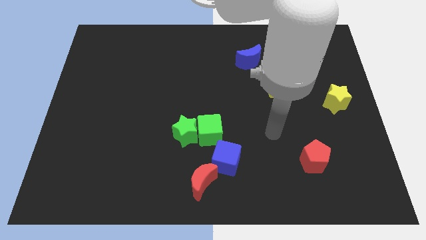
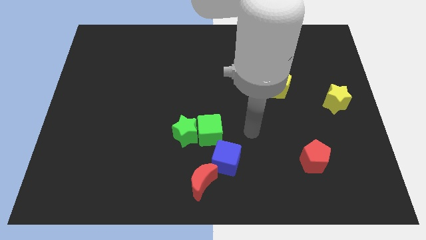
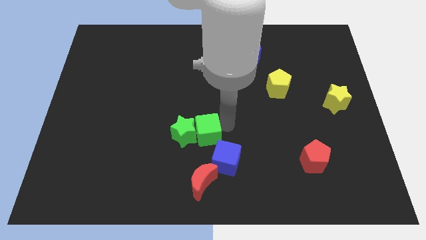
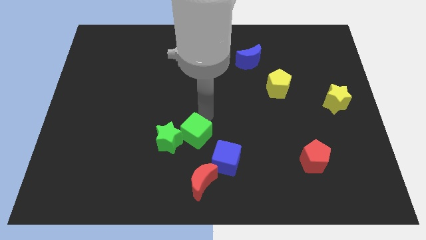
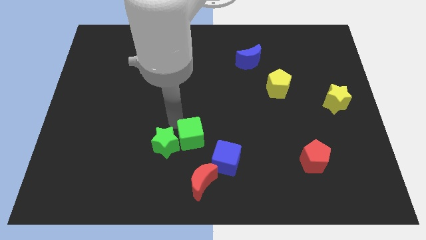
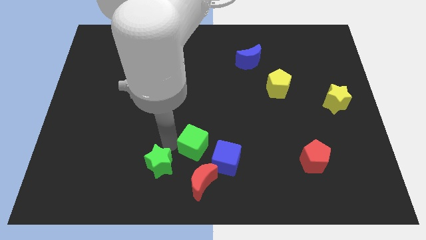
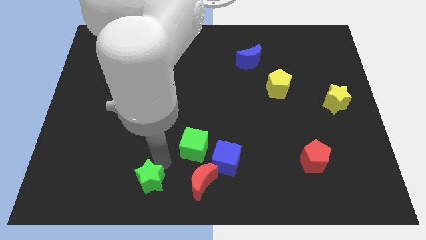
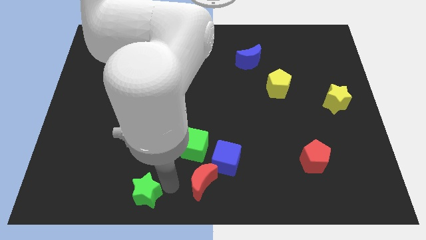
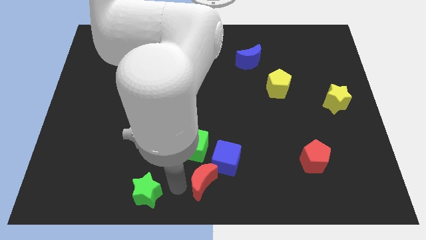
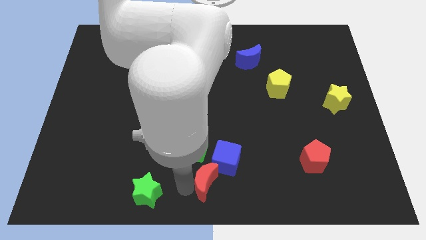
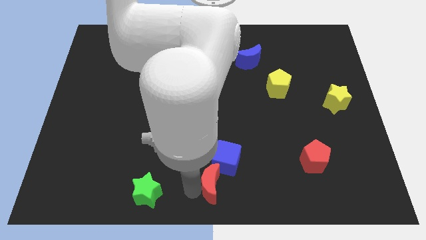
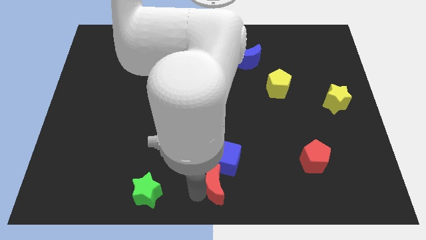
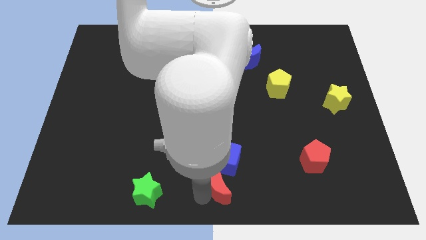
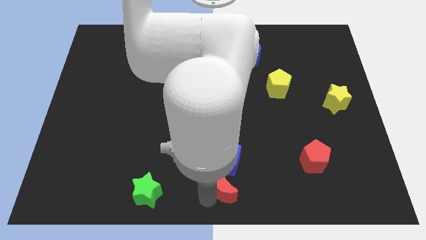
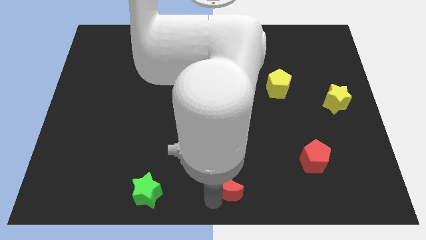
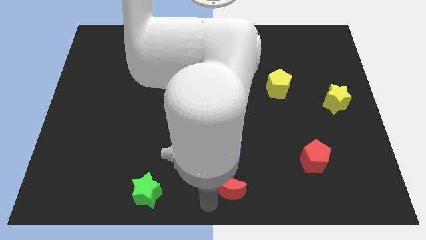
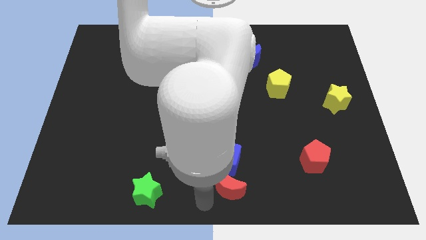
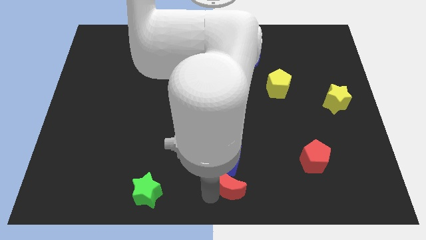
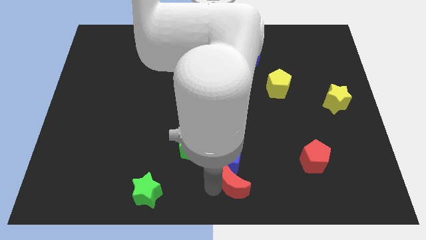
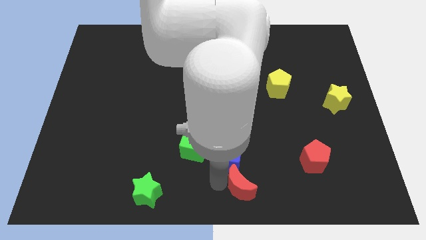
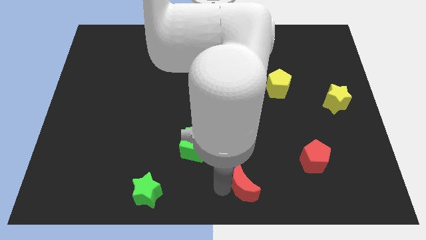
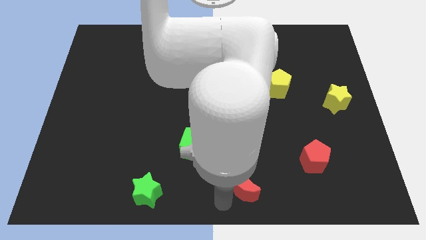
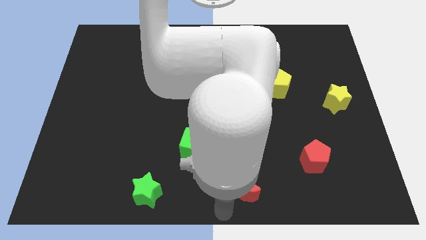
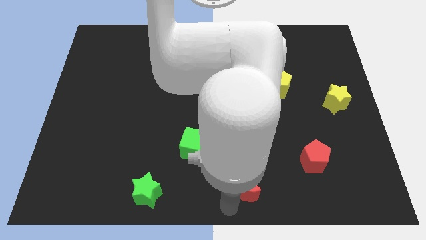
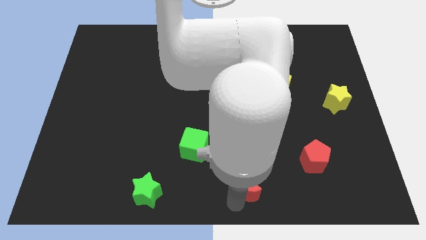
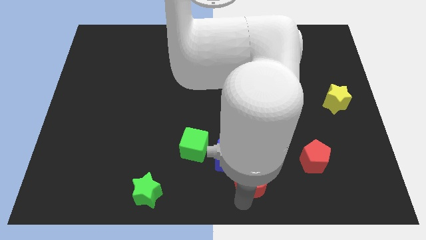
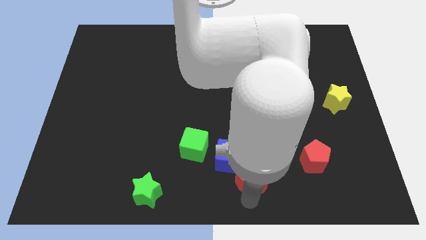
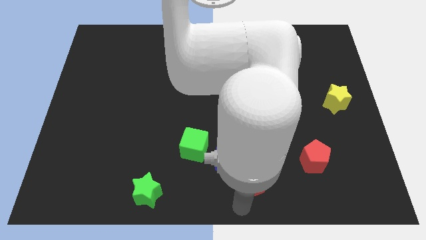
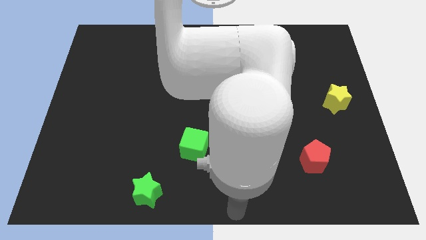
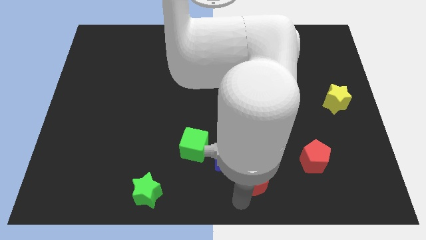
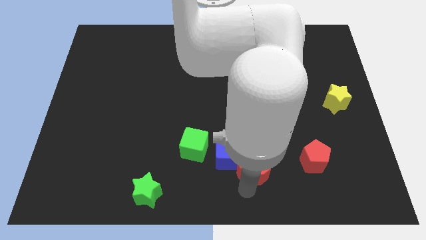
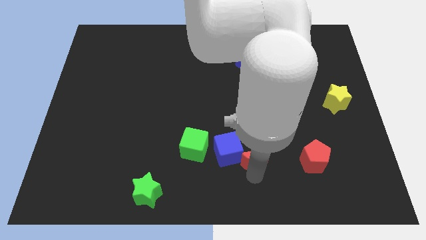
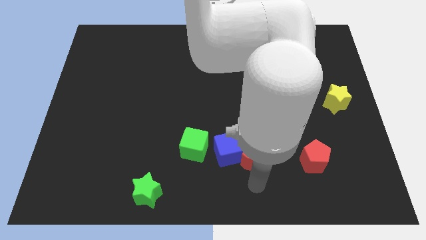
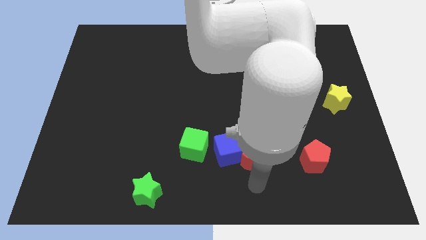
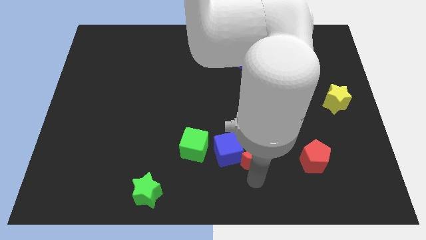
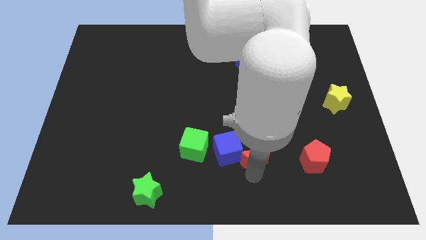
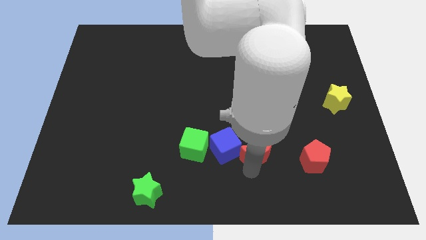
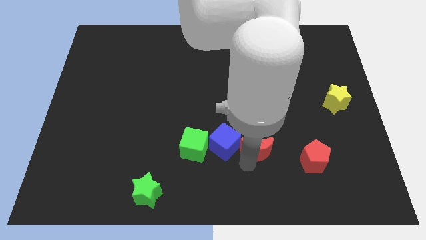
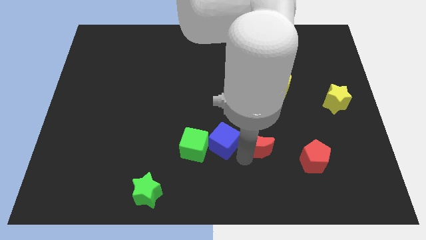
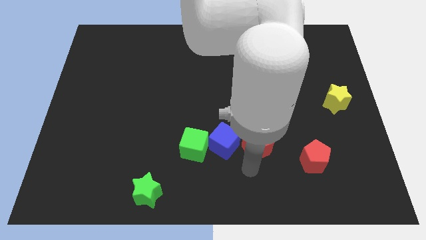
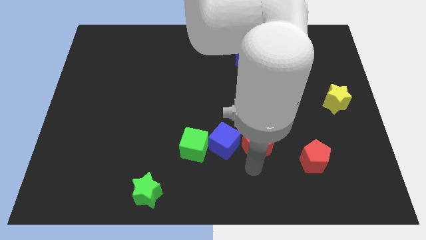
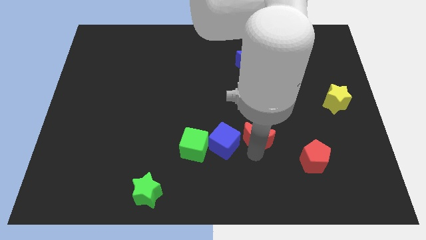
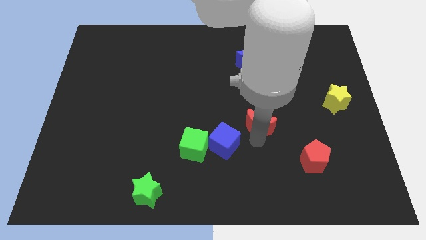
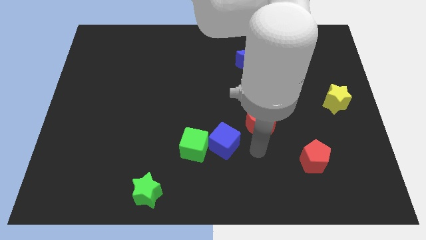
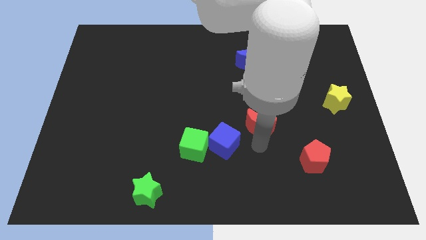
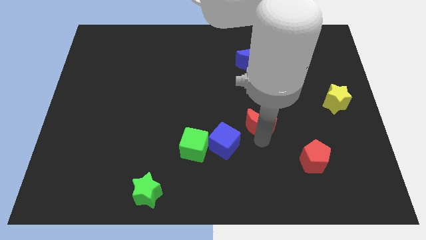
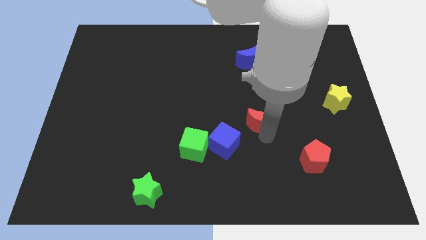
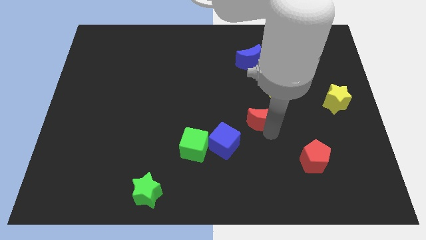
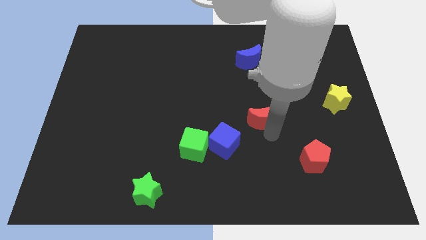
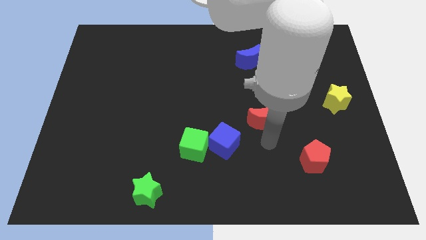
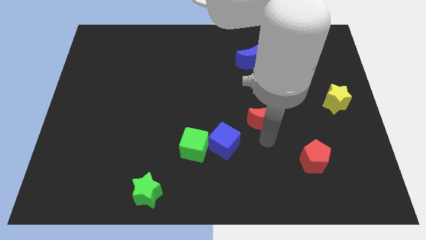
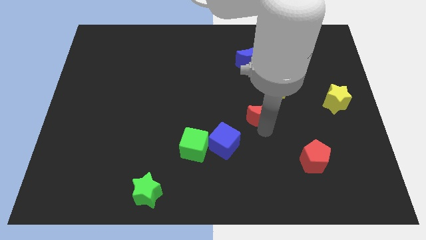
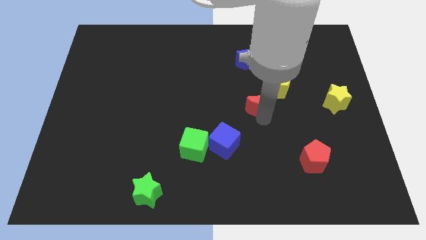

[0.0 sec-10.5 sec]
slide the red moon below the blue moon

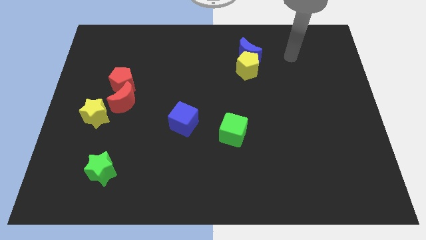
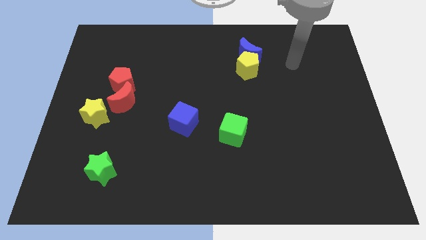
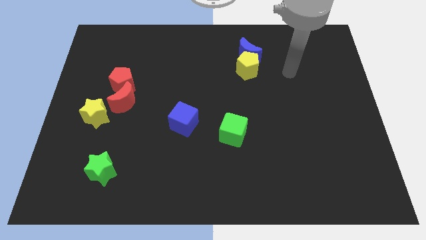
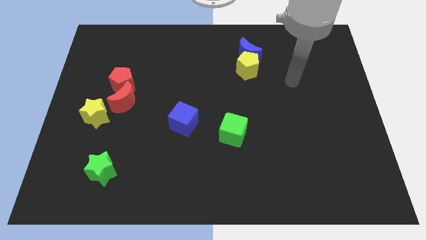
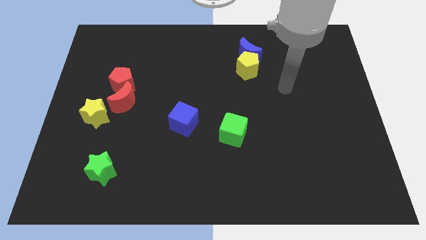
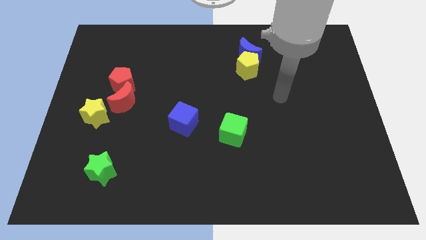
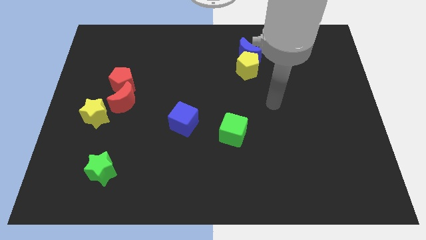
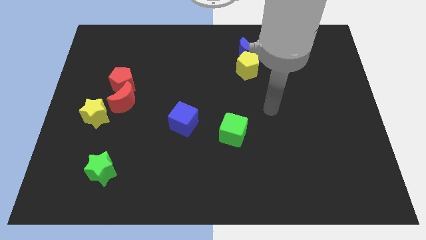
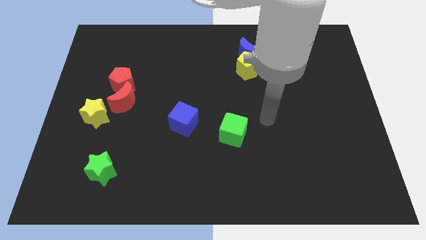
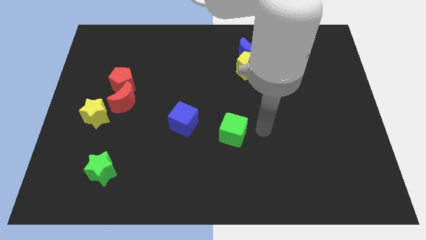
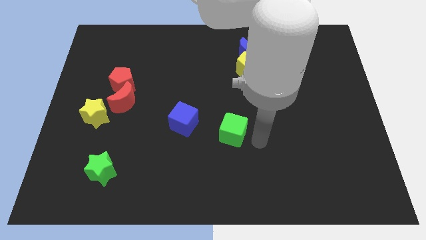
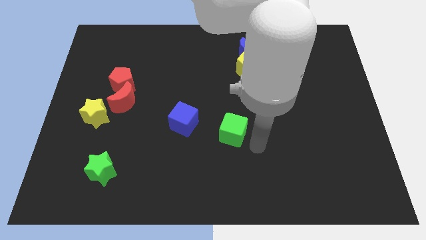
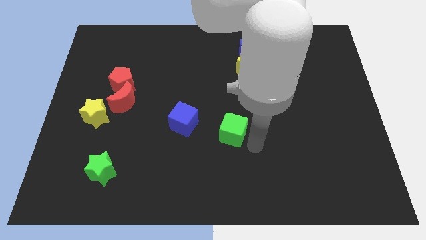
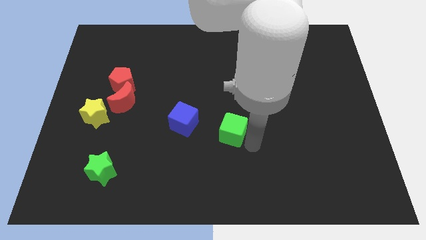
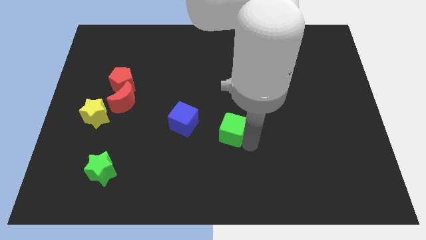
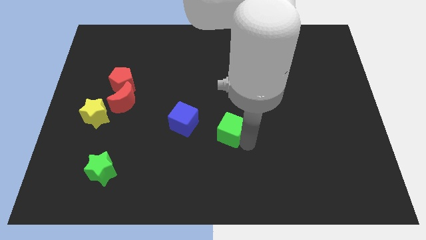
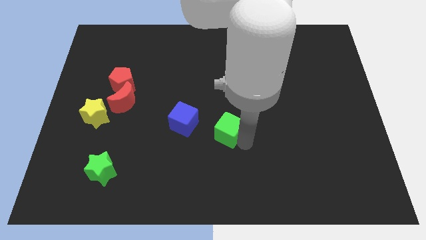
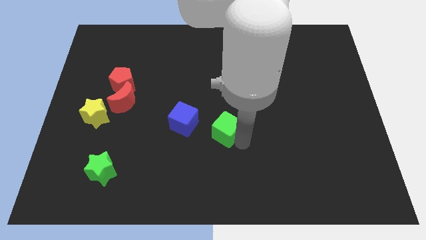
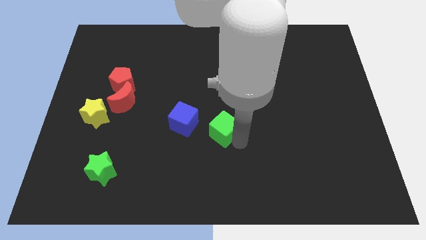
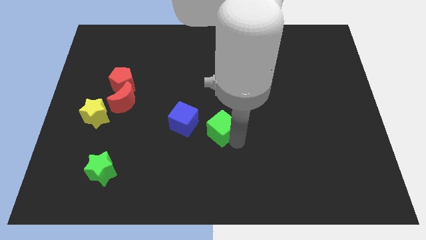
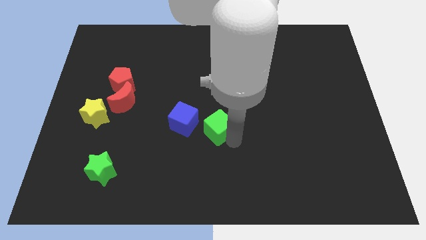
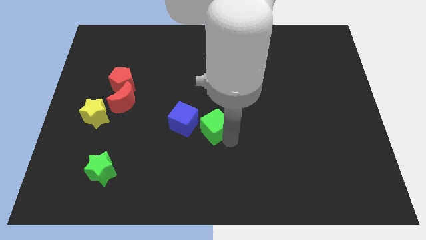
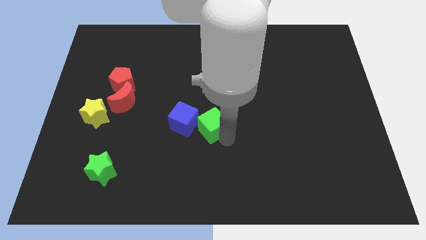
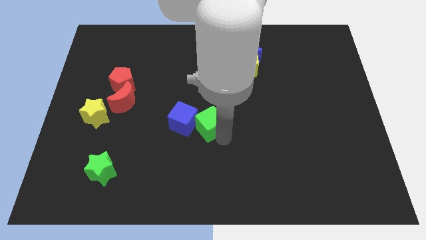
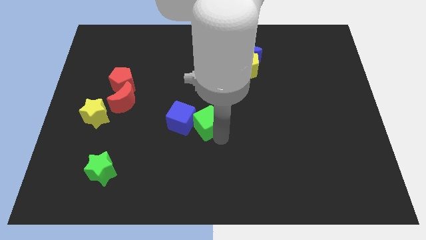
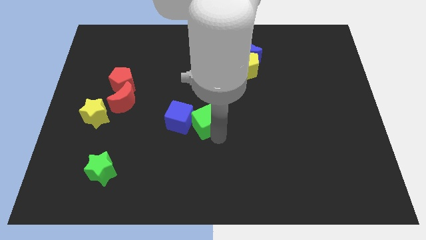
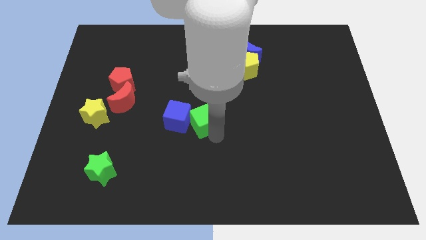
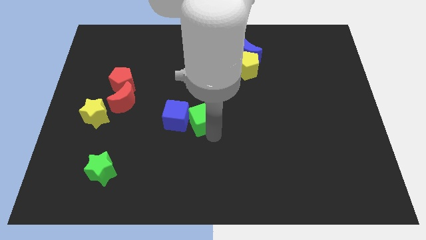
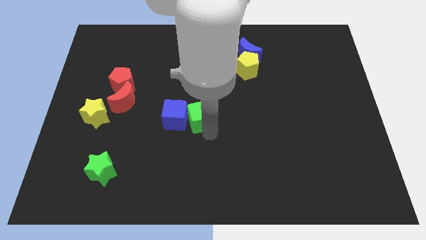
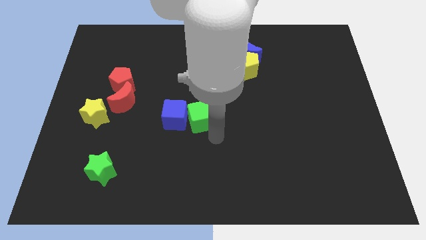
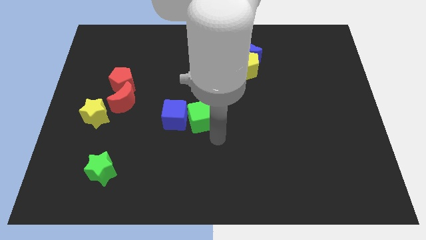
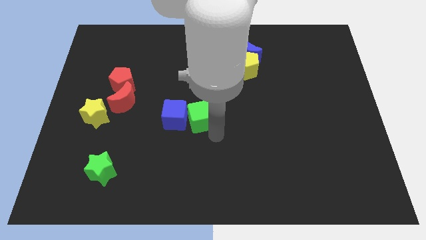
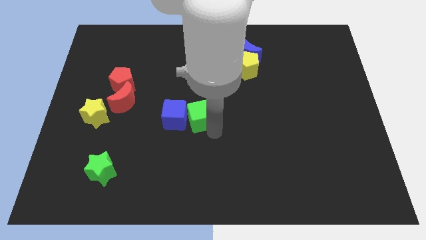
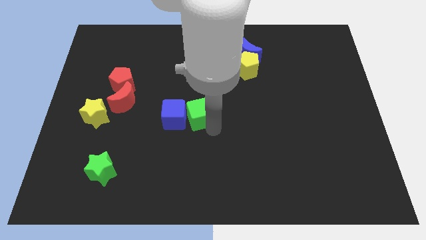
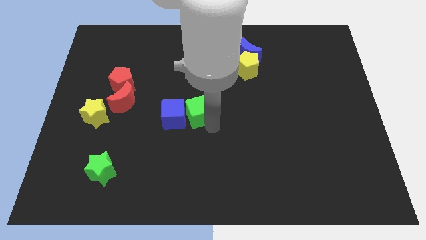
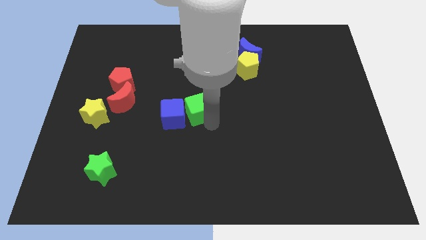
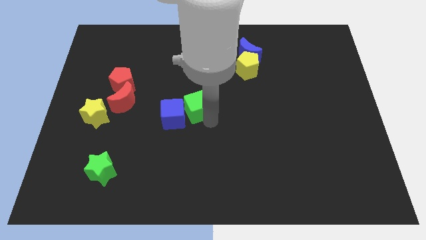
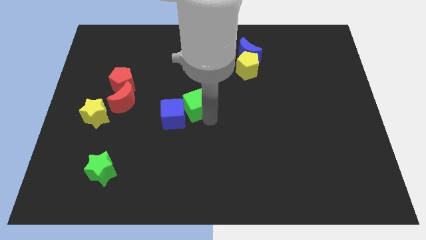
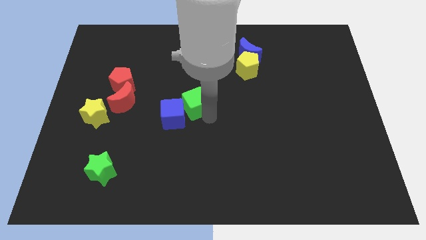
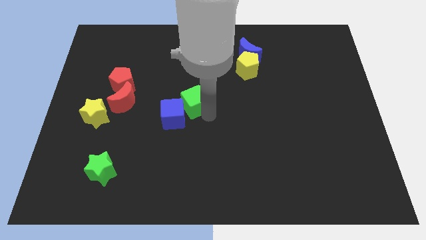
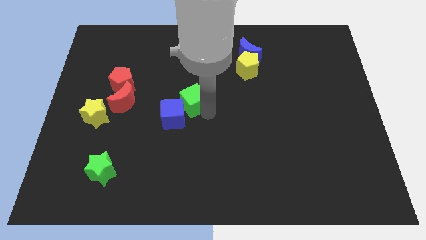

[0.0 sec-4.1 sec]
move the green cube to the right side of the red moon
